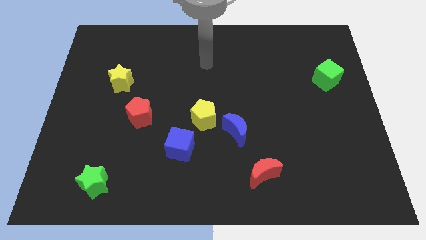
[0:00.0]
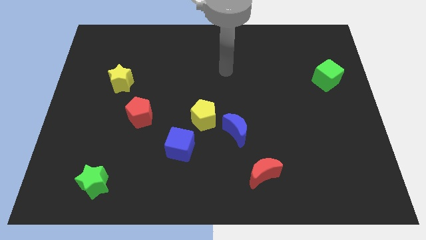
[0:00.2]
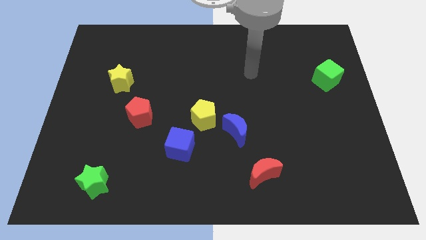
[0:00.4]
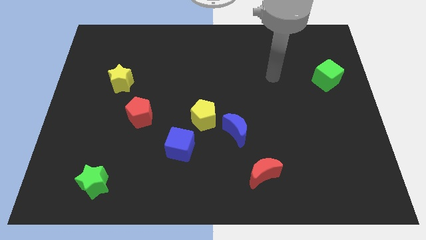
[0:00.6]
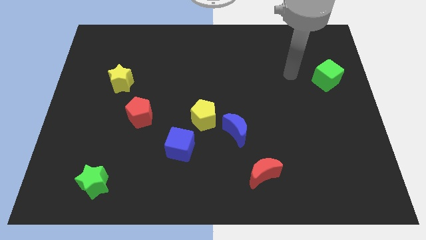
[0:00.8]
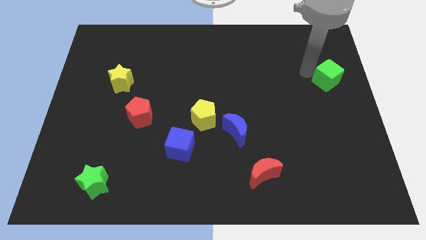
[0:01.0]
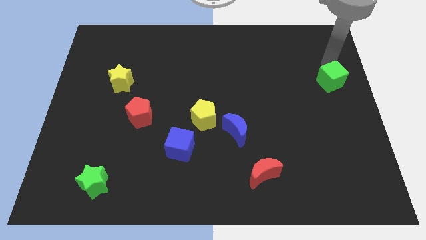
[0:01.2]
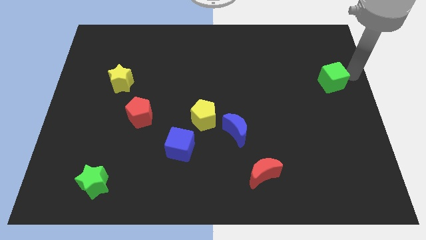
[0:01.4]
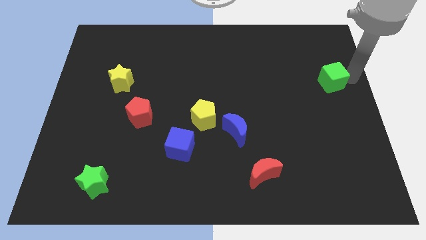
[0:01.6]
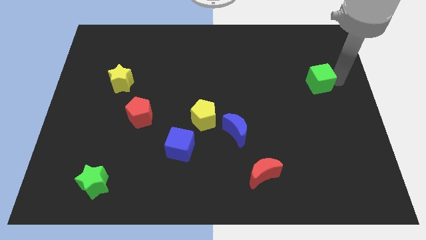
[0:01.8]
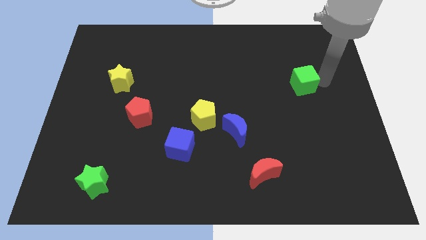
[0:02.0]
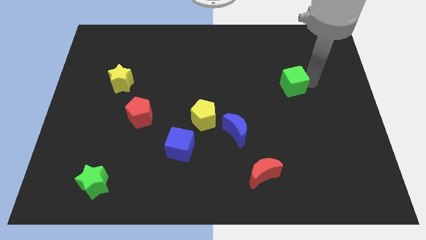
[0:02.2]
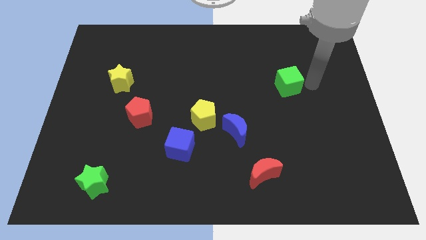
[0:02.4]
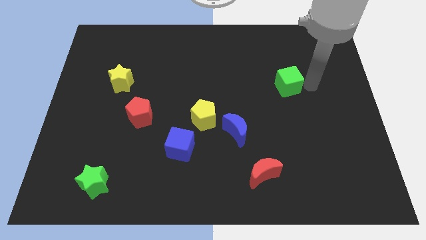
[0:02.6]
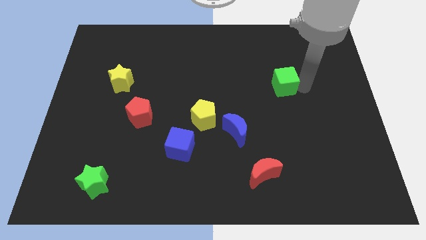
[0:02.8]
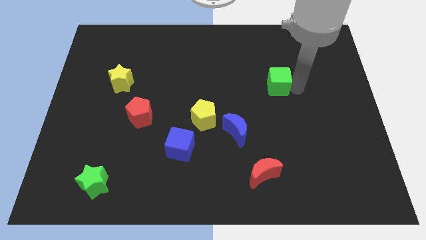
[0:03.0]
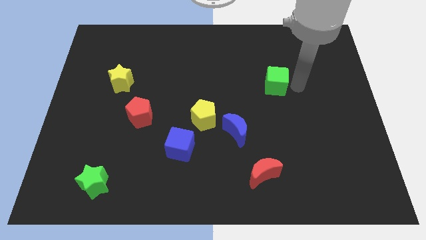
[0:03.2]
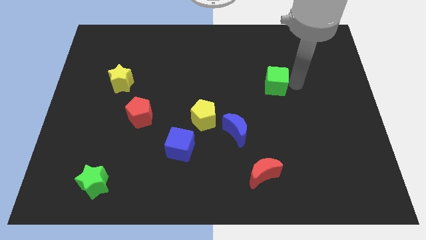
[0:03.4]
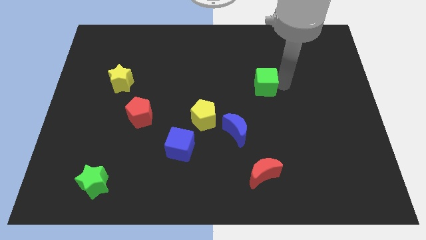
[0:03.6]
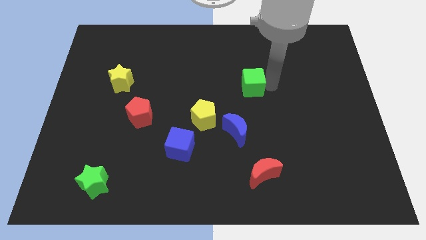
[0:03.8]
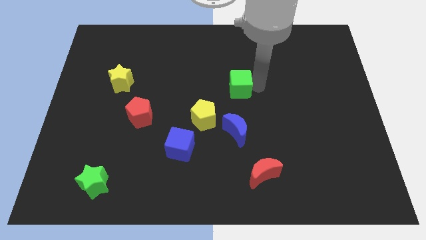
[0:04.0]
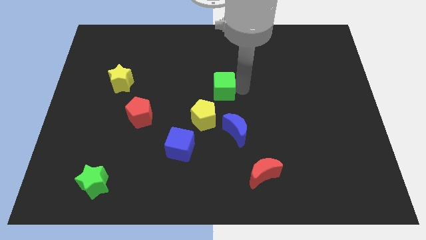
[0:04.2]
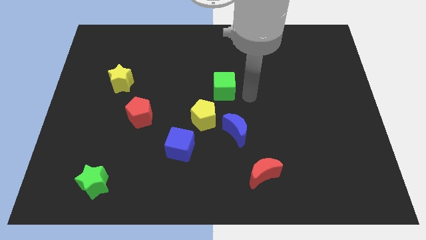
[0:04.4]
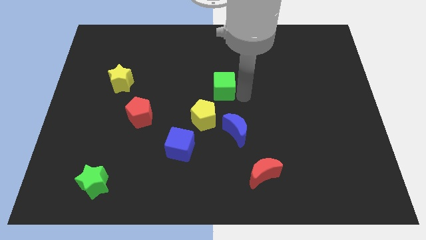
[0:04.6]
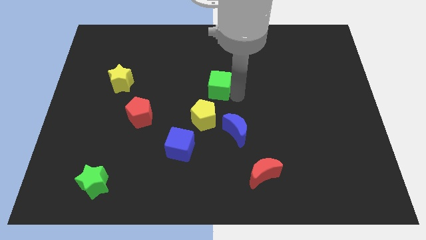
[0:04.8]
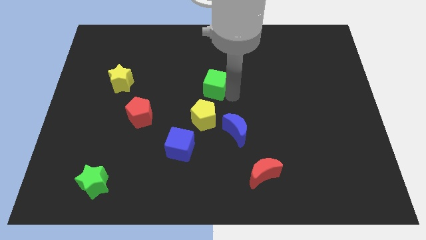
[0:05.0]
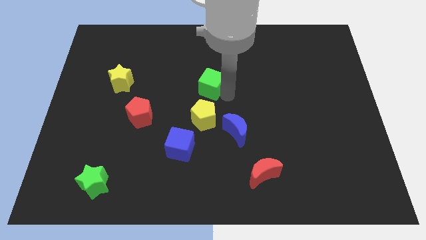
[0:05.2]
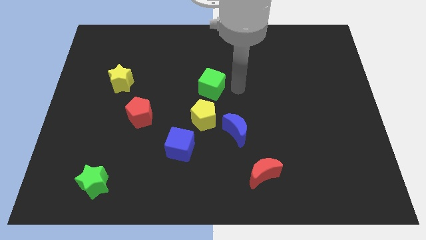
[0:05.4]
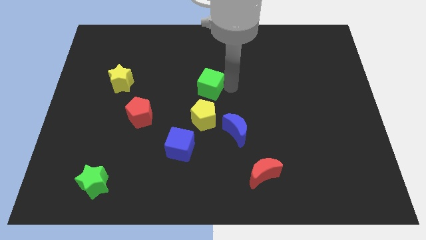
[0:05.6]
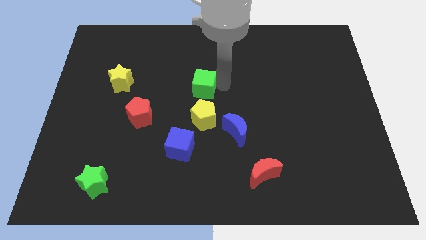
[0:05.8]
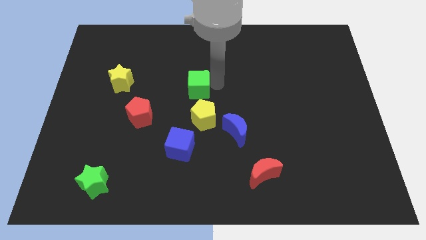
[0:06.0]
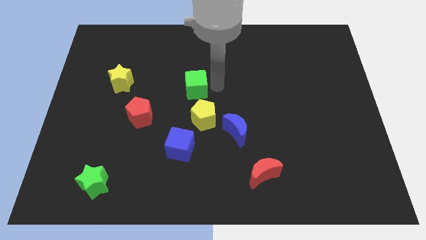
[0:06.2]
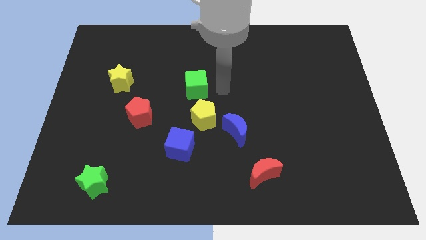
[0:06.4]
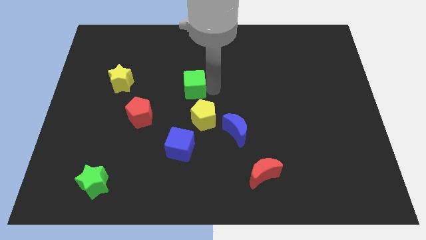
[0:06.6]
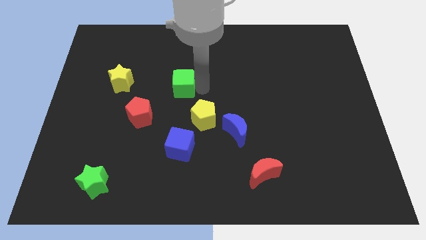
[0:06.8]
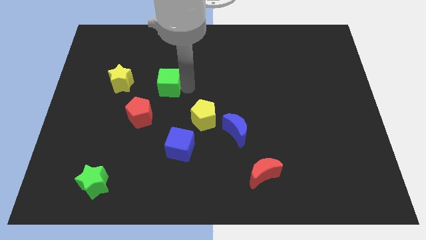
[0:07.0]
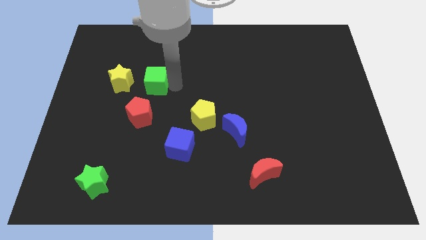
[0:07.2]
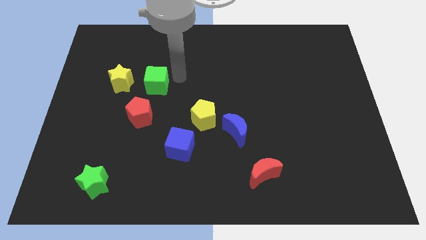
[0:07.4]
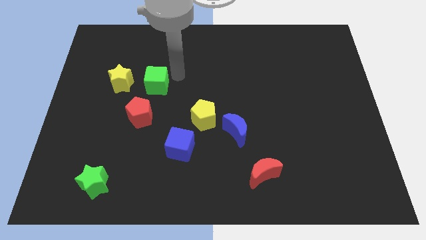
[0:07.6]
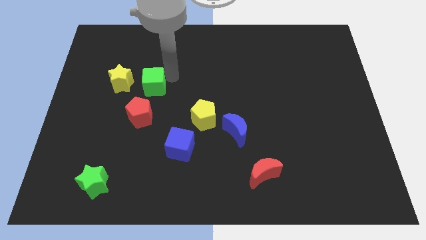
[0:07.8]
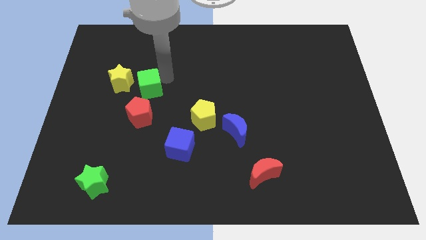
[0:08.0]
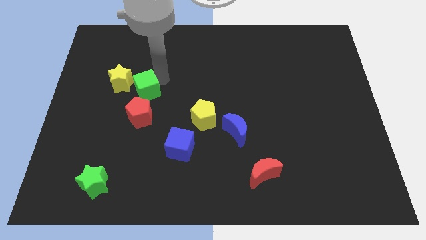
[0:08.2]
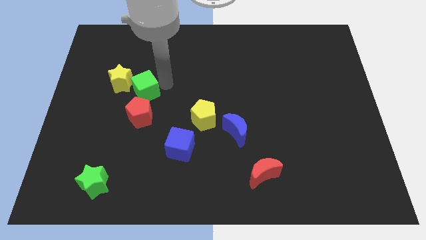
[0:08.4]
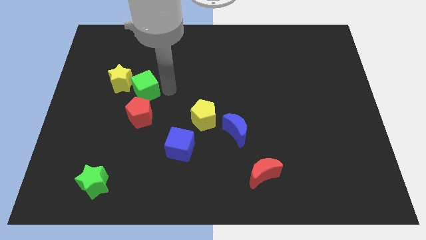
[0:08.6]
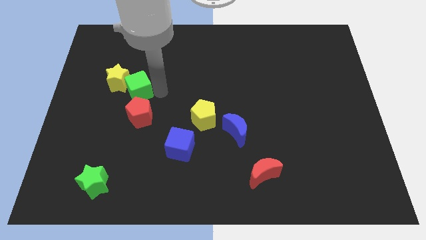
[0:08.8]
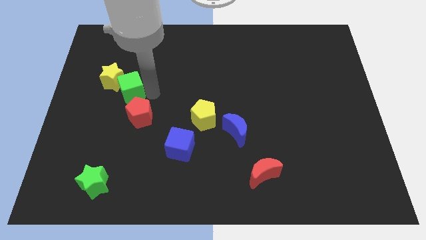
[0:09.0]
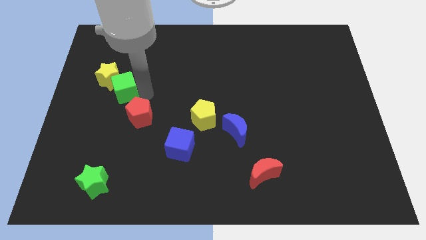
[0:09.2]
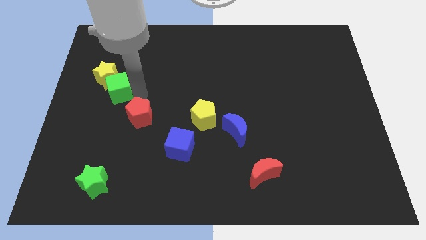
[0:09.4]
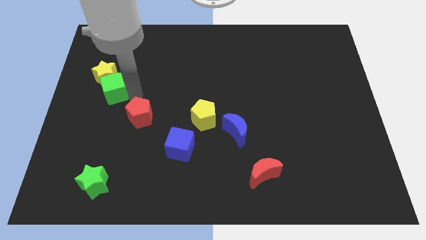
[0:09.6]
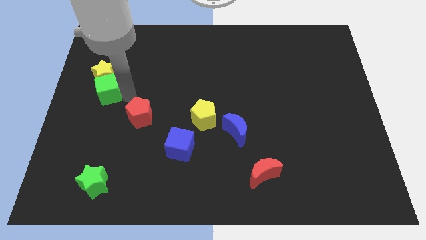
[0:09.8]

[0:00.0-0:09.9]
put the green cube to the left side

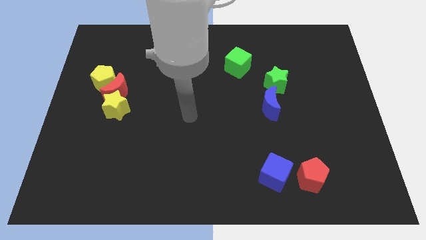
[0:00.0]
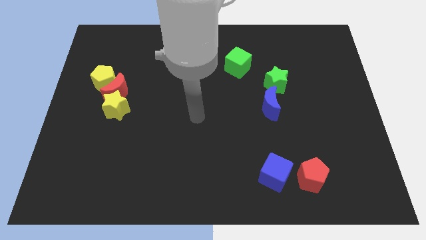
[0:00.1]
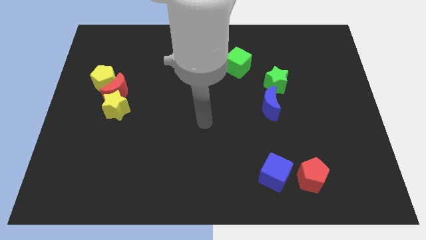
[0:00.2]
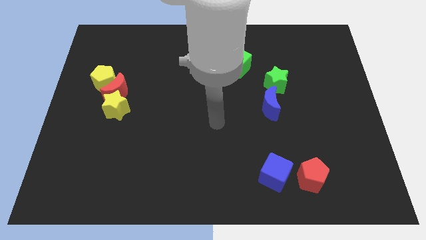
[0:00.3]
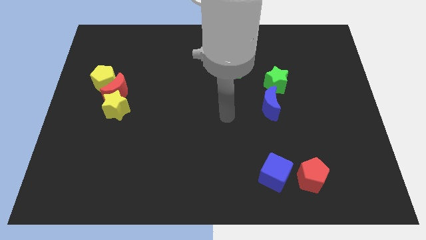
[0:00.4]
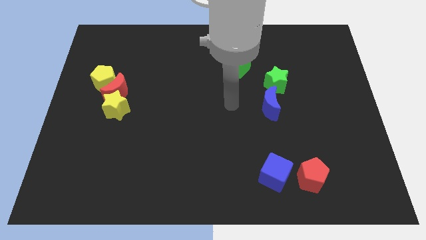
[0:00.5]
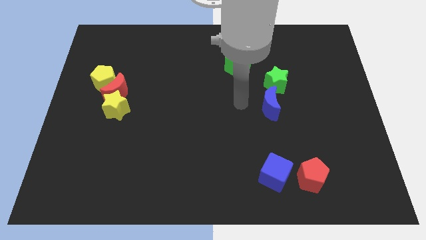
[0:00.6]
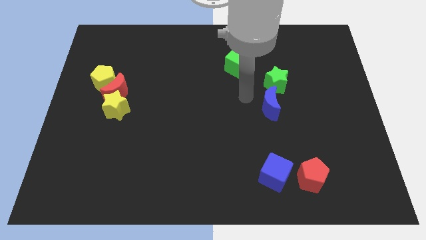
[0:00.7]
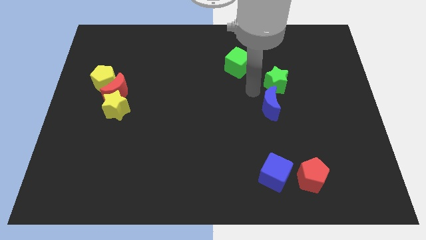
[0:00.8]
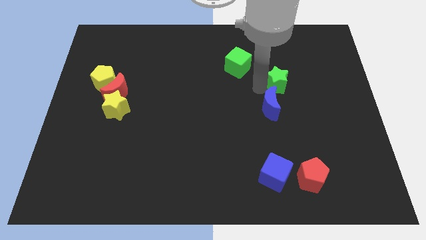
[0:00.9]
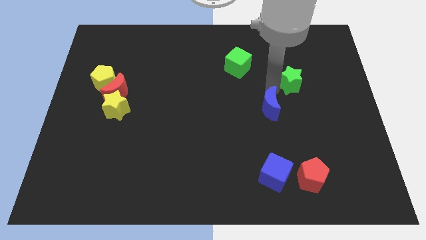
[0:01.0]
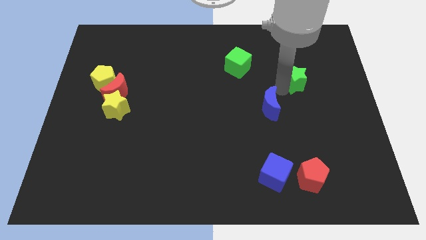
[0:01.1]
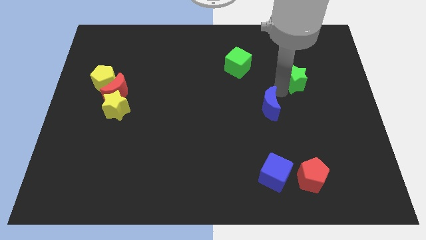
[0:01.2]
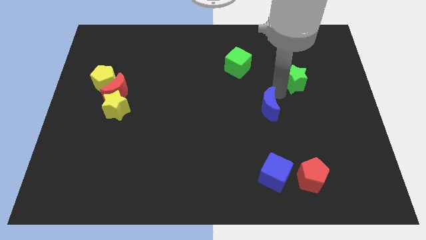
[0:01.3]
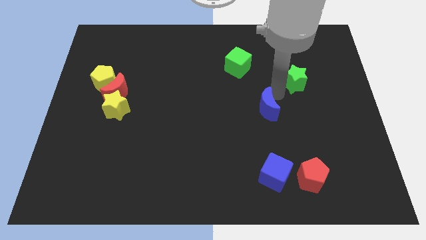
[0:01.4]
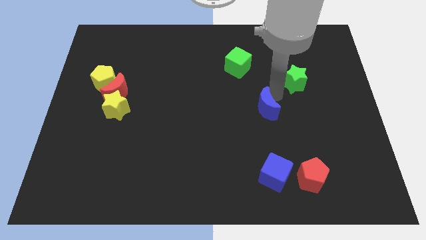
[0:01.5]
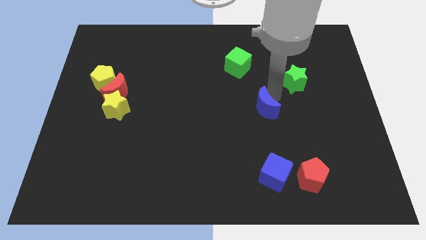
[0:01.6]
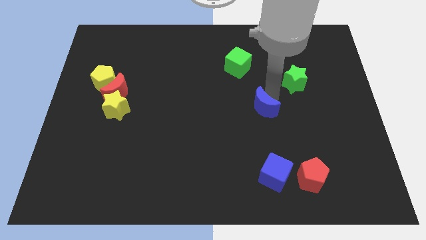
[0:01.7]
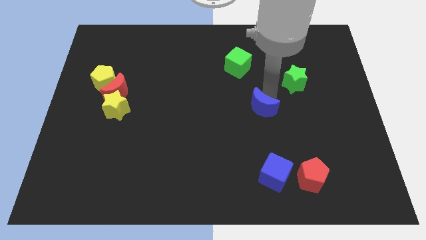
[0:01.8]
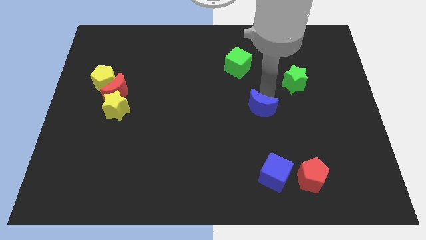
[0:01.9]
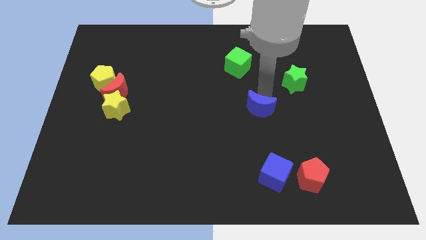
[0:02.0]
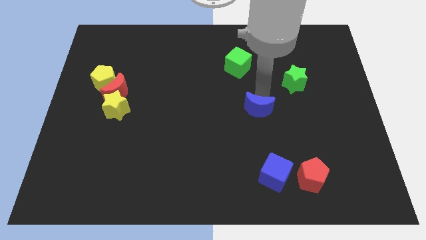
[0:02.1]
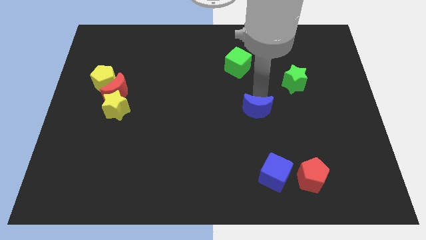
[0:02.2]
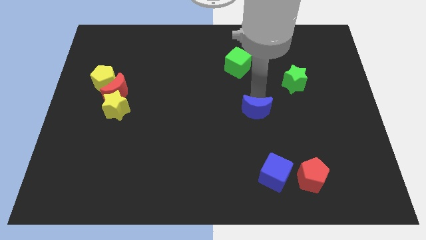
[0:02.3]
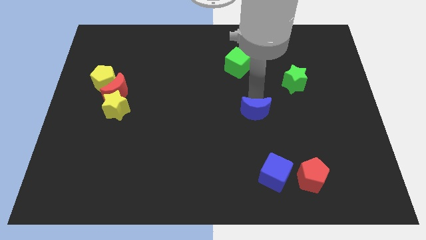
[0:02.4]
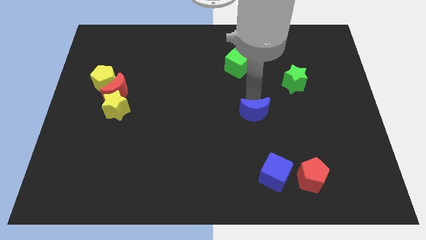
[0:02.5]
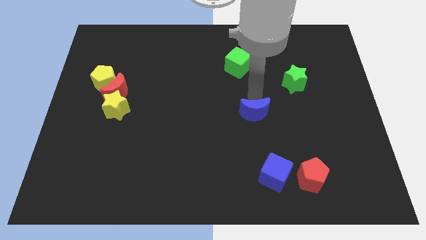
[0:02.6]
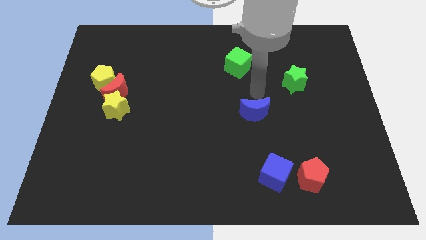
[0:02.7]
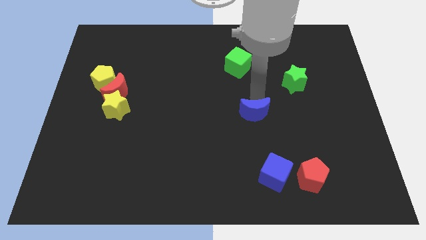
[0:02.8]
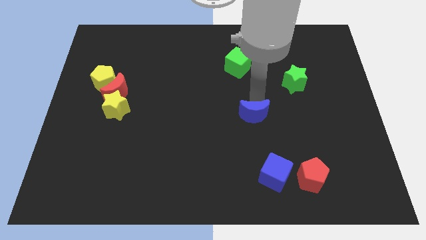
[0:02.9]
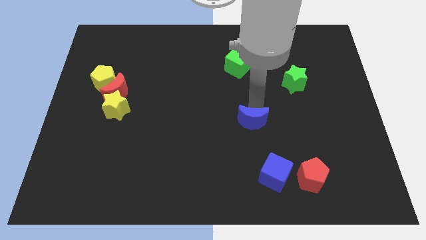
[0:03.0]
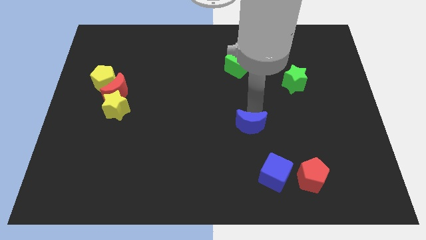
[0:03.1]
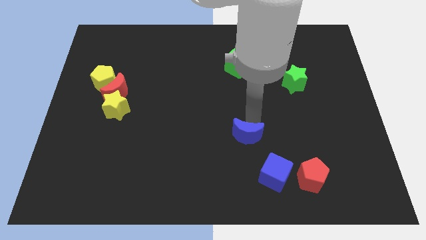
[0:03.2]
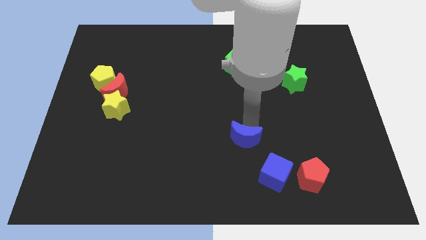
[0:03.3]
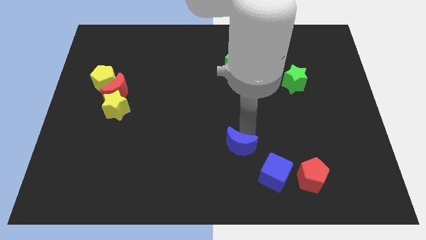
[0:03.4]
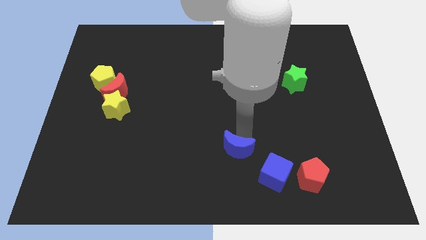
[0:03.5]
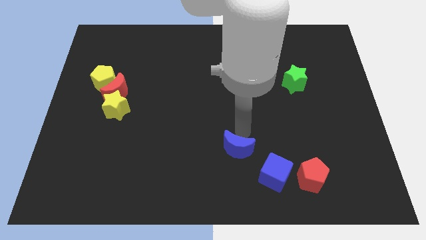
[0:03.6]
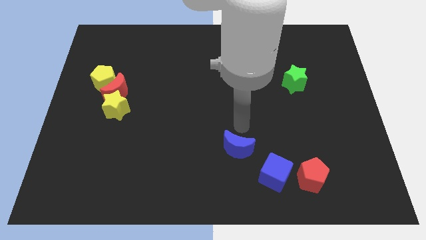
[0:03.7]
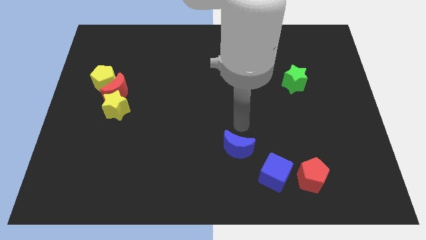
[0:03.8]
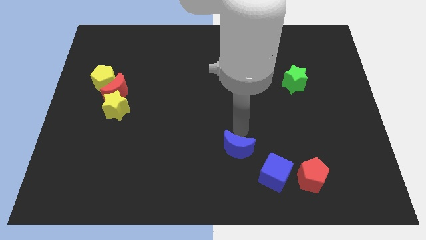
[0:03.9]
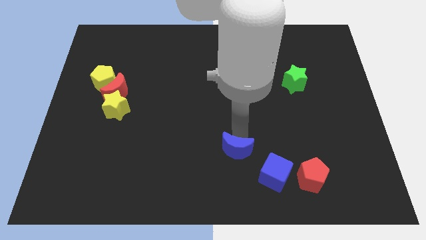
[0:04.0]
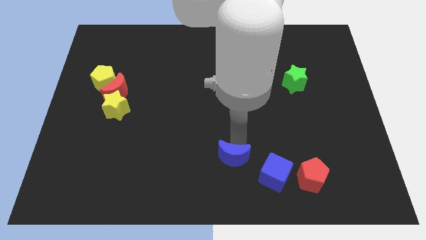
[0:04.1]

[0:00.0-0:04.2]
push the blue moon to the bottom side
